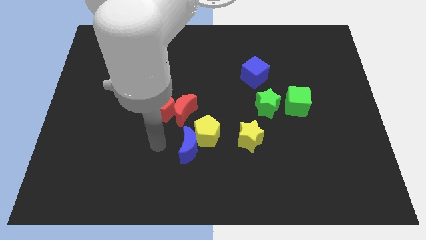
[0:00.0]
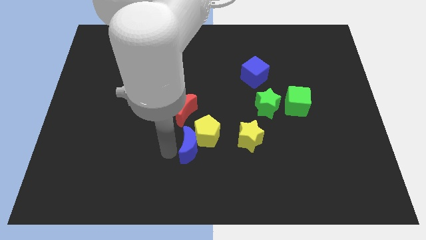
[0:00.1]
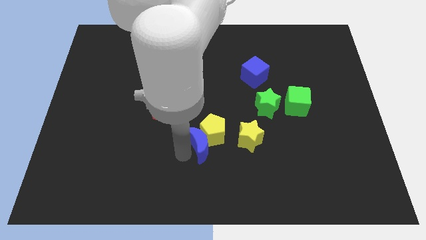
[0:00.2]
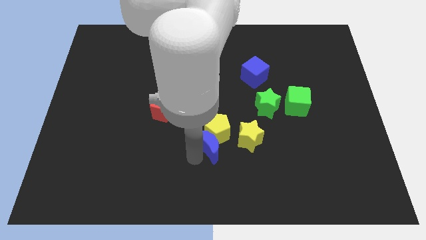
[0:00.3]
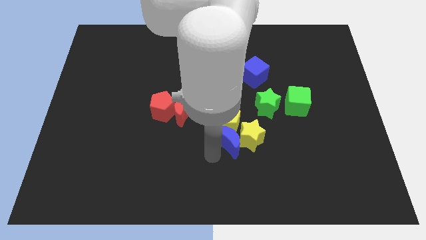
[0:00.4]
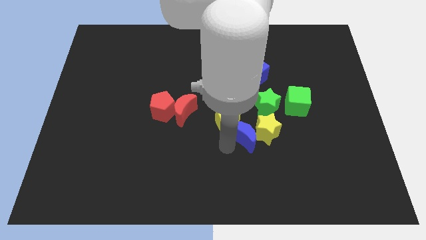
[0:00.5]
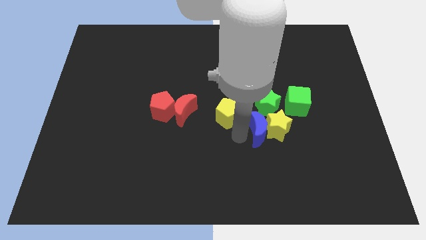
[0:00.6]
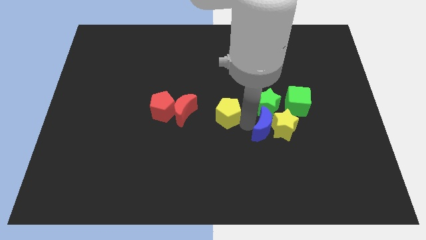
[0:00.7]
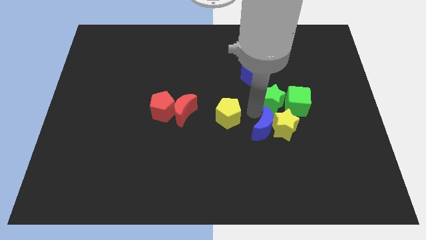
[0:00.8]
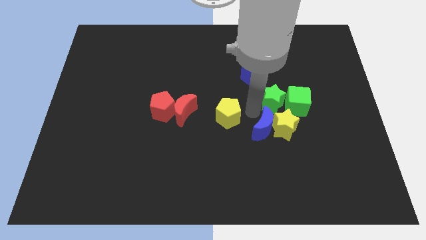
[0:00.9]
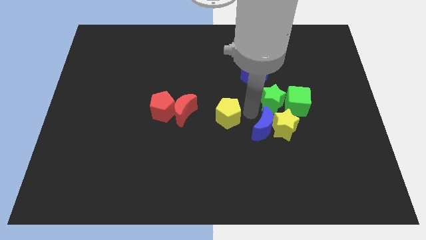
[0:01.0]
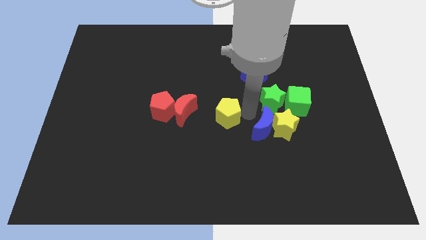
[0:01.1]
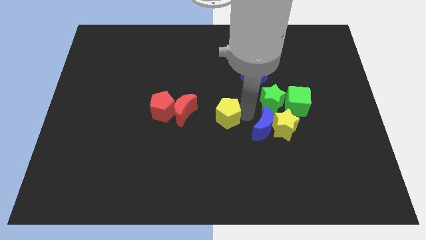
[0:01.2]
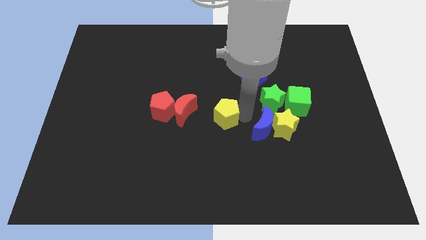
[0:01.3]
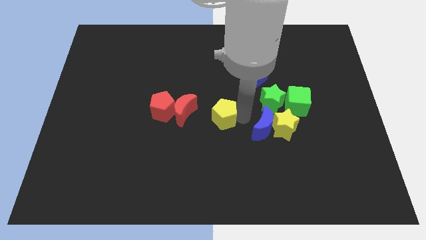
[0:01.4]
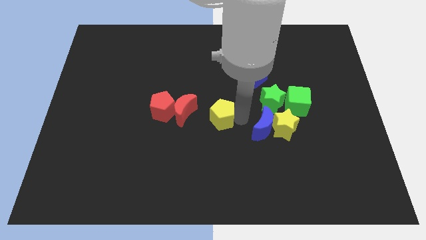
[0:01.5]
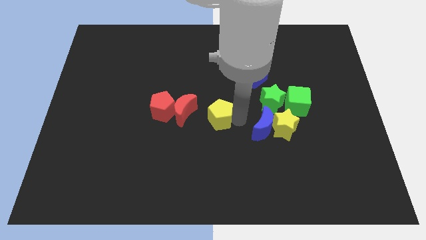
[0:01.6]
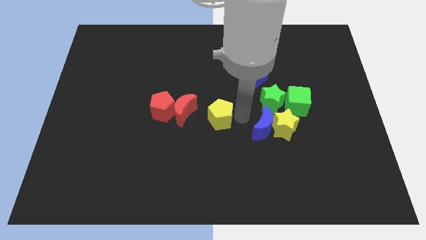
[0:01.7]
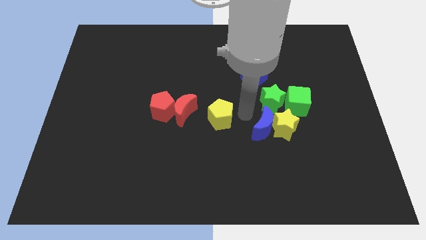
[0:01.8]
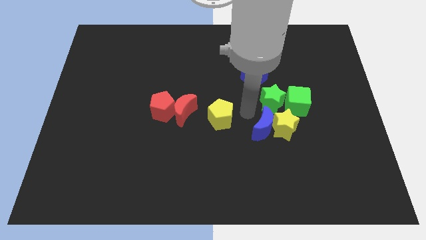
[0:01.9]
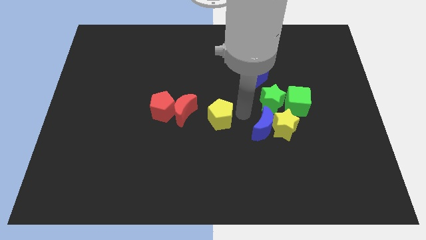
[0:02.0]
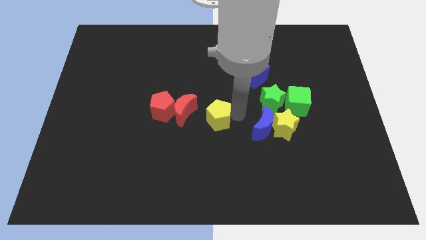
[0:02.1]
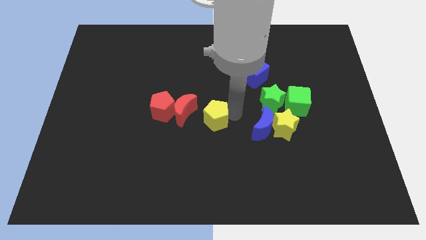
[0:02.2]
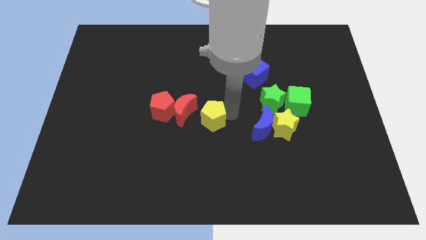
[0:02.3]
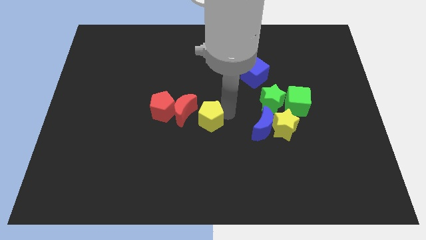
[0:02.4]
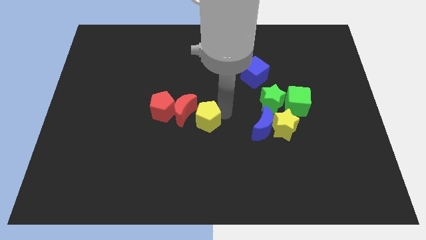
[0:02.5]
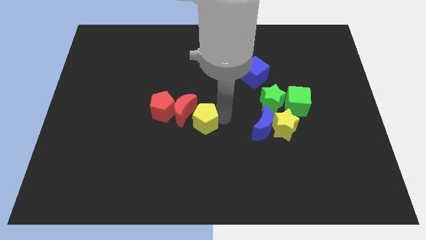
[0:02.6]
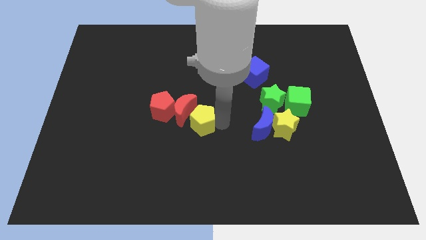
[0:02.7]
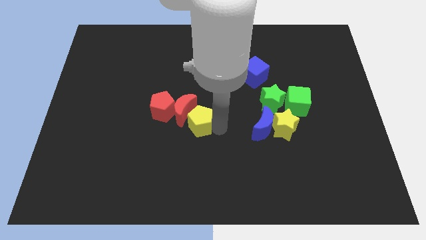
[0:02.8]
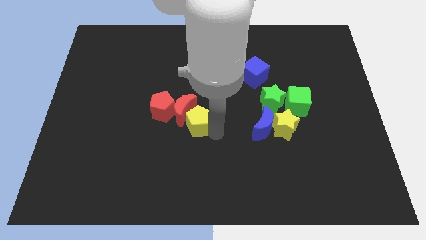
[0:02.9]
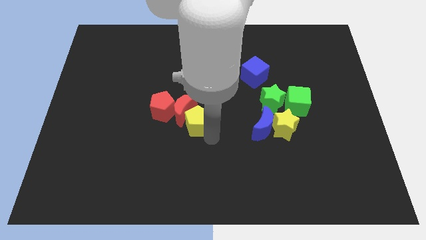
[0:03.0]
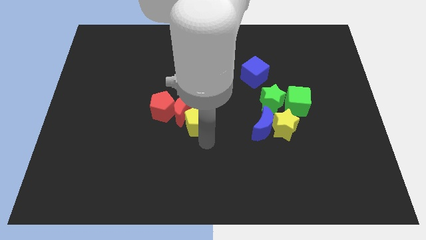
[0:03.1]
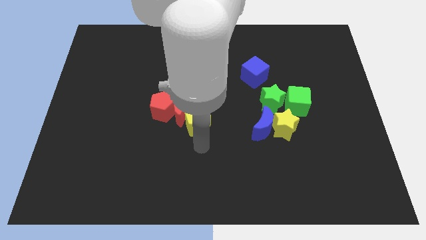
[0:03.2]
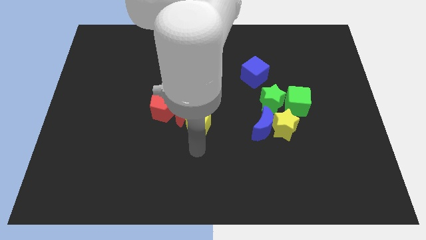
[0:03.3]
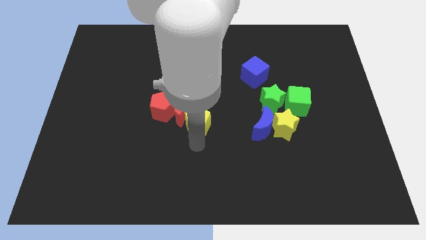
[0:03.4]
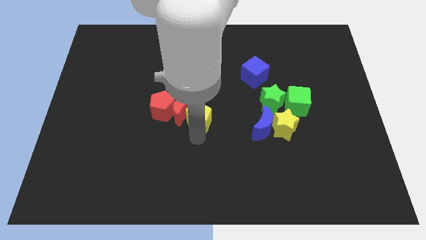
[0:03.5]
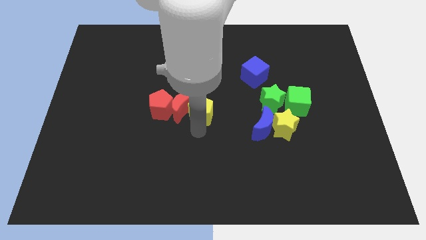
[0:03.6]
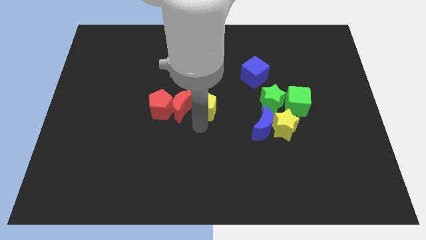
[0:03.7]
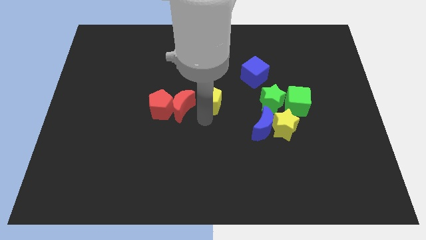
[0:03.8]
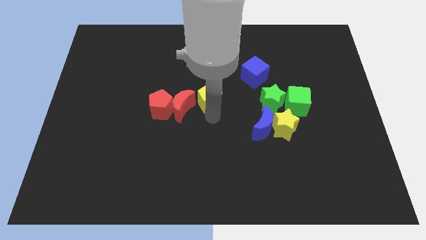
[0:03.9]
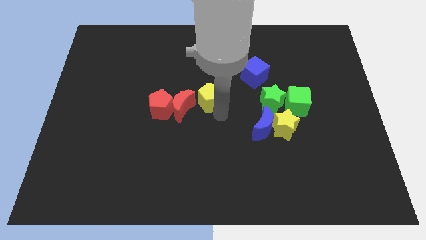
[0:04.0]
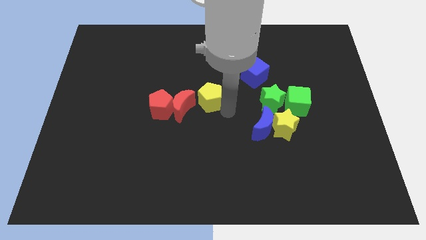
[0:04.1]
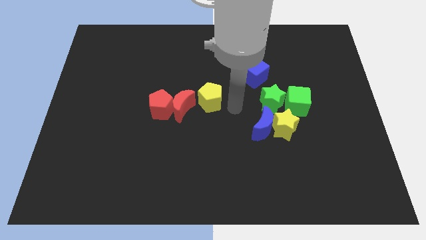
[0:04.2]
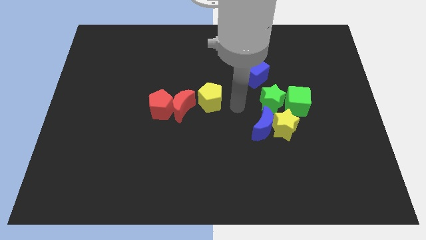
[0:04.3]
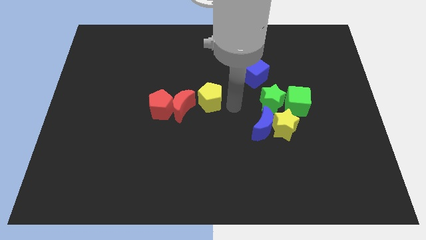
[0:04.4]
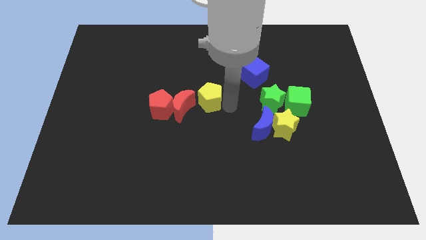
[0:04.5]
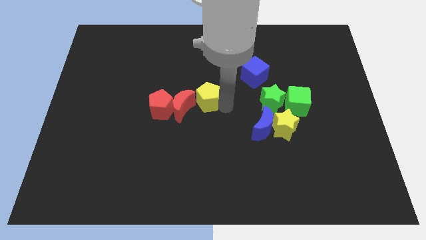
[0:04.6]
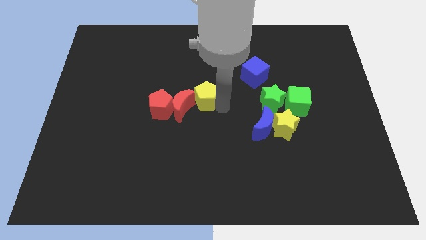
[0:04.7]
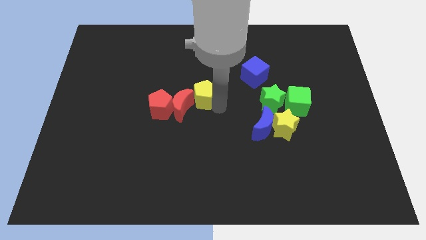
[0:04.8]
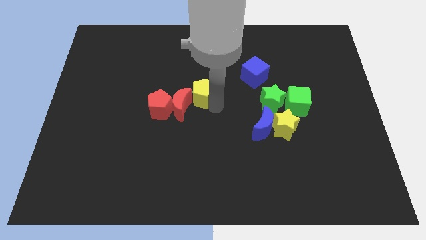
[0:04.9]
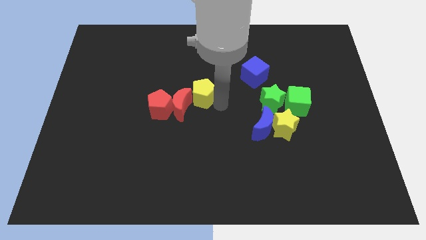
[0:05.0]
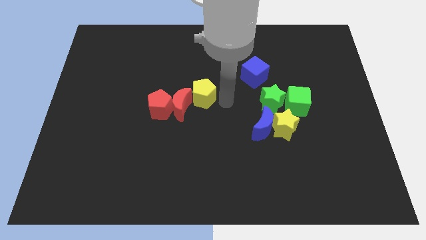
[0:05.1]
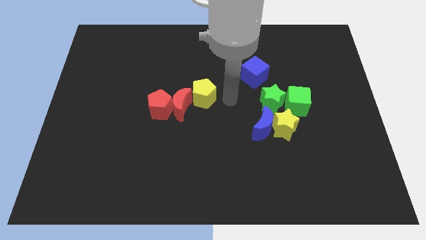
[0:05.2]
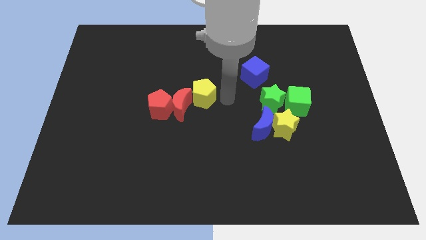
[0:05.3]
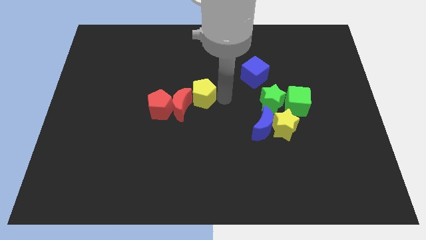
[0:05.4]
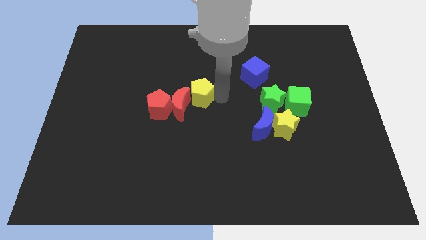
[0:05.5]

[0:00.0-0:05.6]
push the yellow pentagon up and to the left diagonally slightly

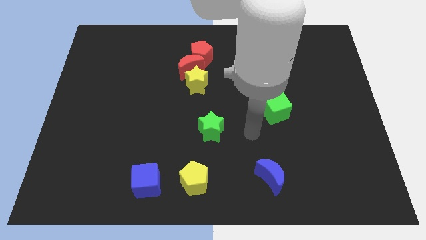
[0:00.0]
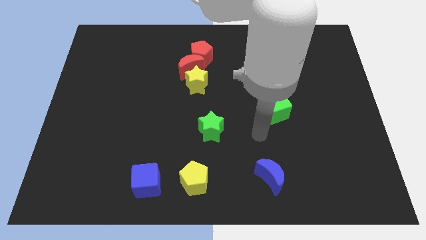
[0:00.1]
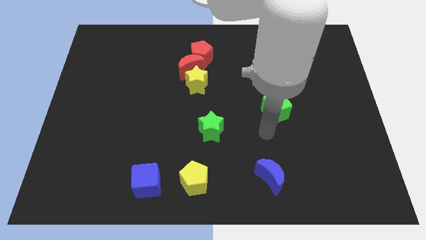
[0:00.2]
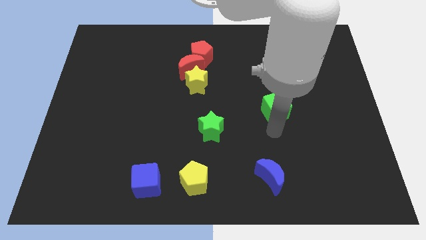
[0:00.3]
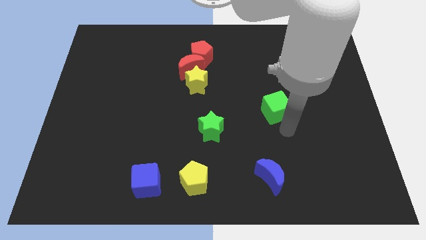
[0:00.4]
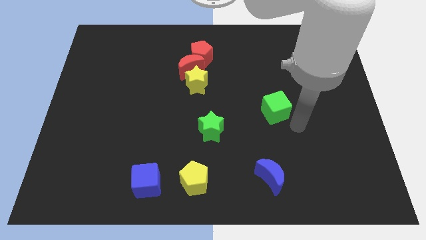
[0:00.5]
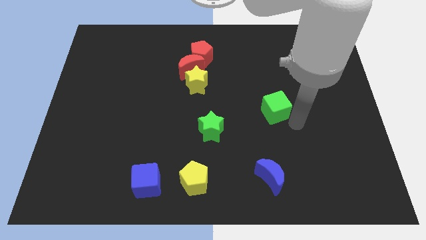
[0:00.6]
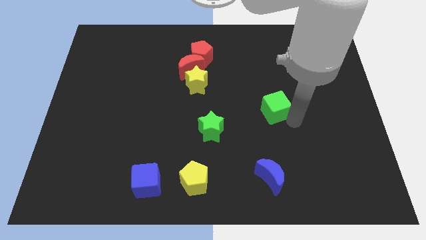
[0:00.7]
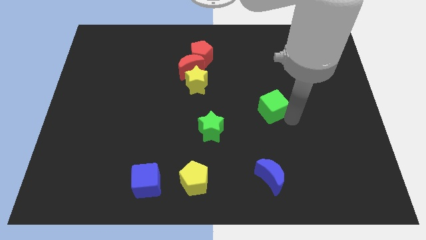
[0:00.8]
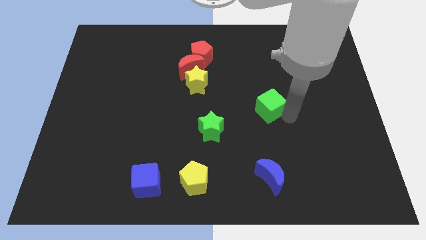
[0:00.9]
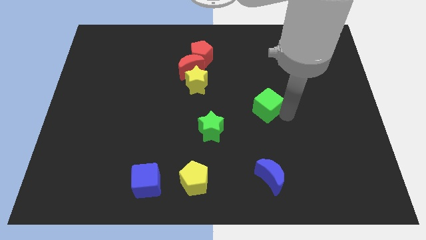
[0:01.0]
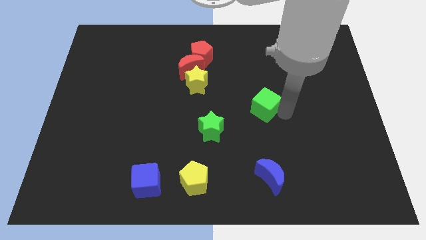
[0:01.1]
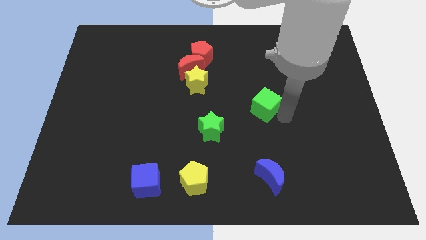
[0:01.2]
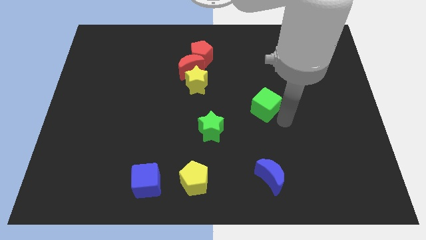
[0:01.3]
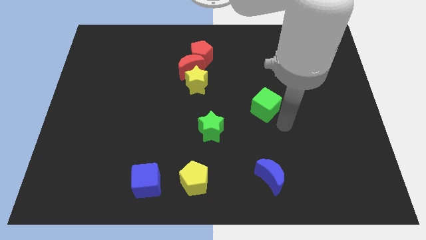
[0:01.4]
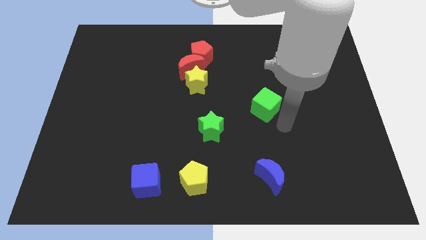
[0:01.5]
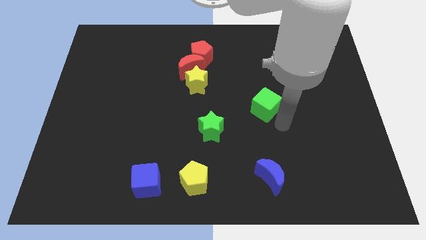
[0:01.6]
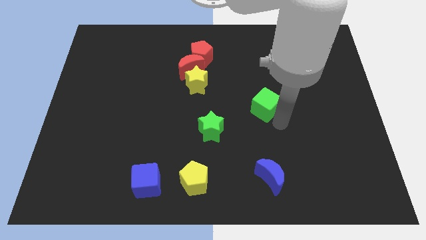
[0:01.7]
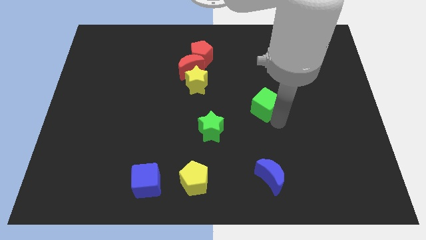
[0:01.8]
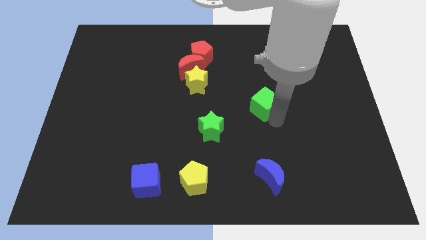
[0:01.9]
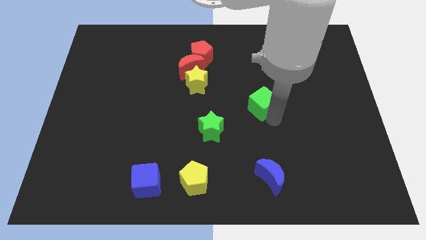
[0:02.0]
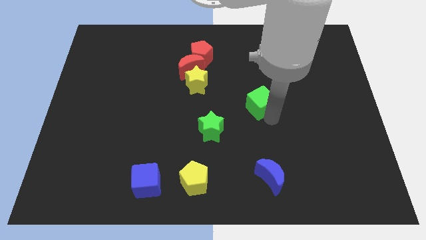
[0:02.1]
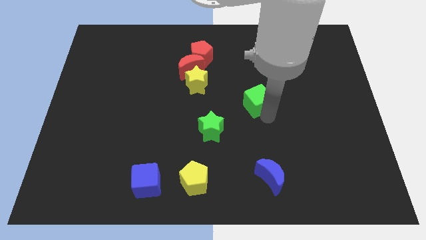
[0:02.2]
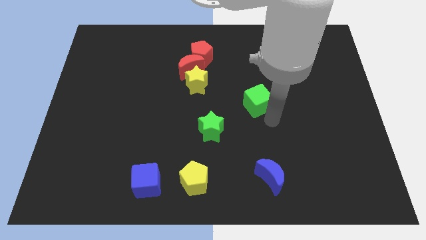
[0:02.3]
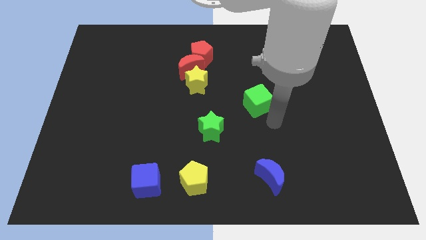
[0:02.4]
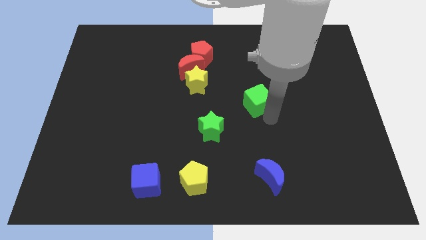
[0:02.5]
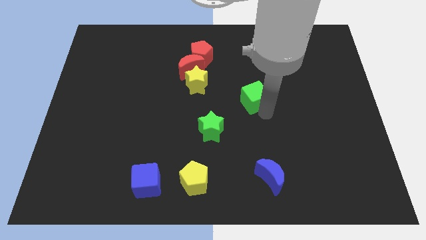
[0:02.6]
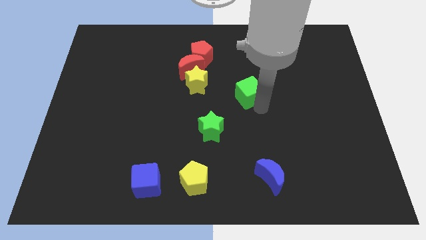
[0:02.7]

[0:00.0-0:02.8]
slightly move the green cube up and then to the left
